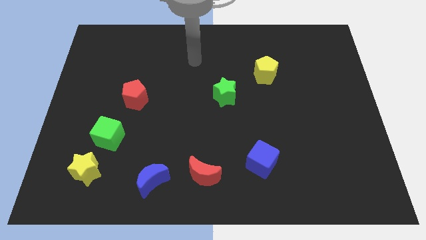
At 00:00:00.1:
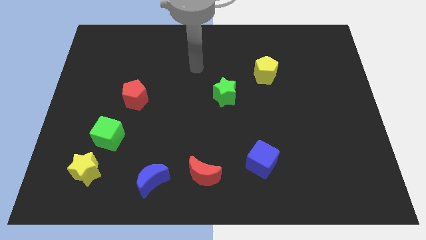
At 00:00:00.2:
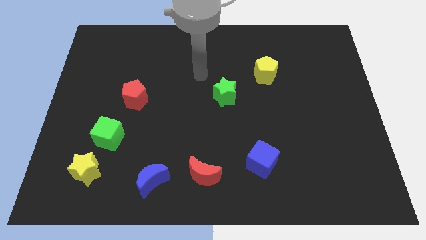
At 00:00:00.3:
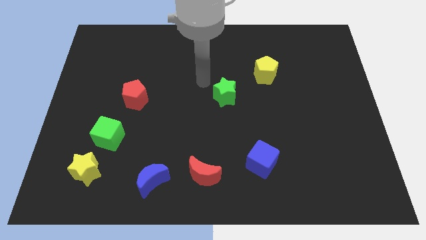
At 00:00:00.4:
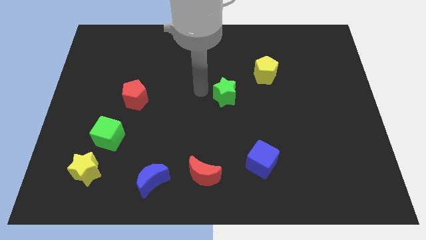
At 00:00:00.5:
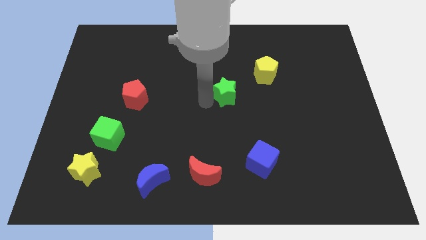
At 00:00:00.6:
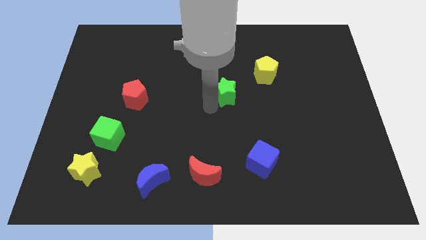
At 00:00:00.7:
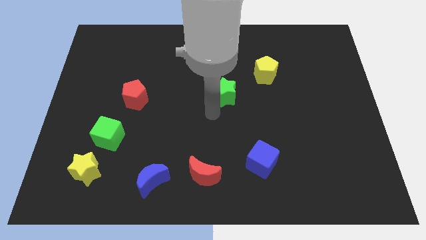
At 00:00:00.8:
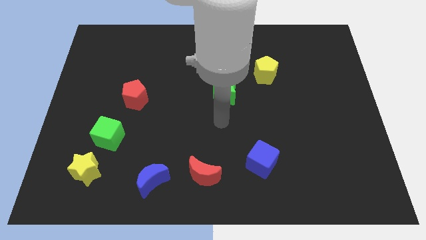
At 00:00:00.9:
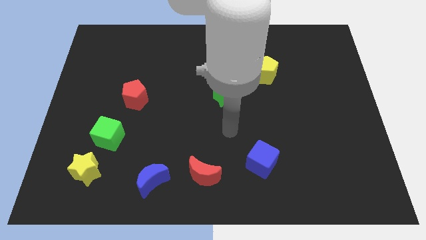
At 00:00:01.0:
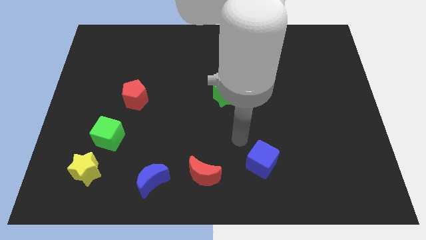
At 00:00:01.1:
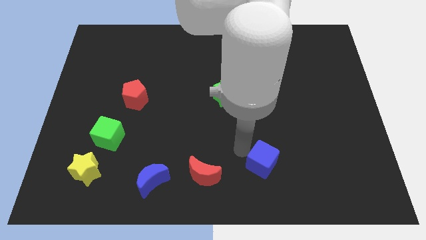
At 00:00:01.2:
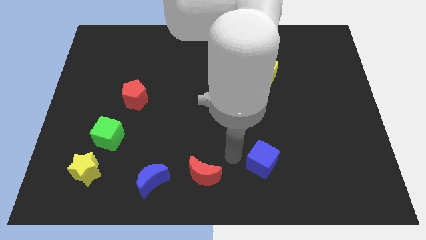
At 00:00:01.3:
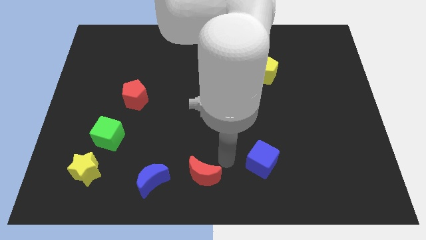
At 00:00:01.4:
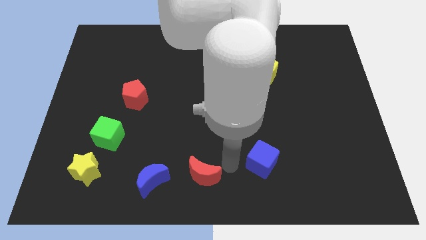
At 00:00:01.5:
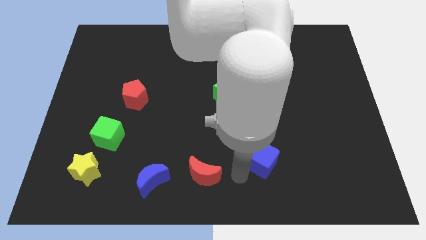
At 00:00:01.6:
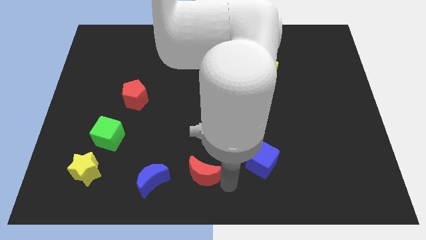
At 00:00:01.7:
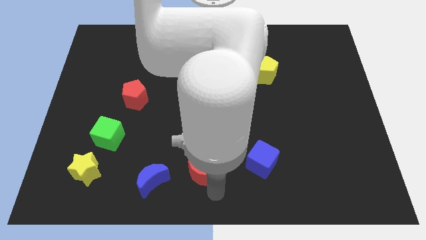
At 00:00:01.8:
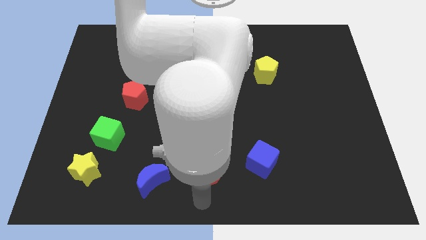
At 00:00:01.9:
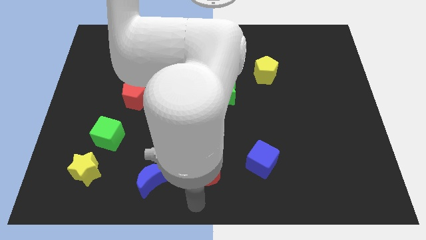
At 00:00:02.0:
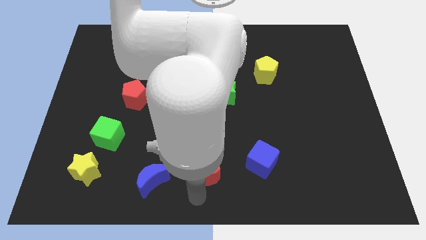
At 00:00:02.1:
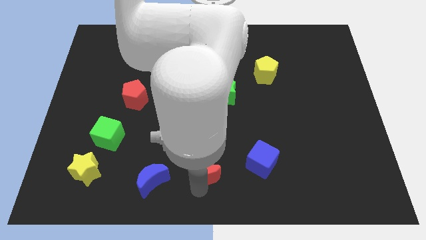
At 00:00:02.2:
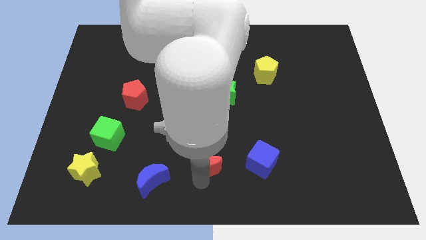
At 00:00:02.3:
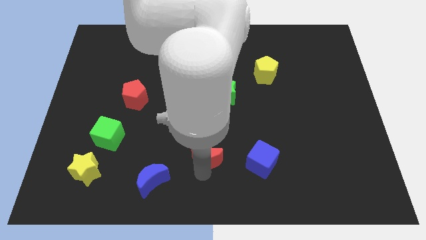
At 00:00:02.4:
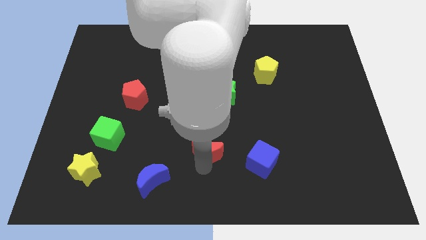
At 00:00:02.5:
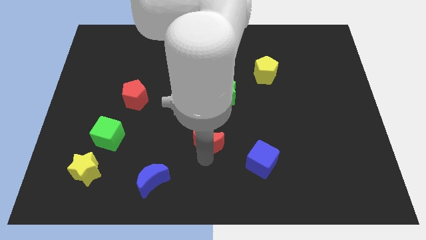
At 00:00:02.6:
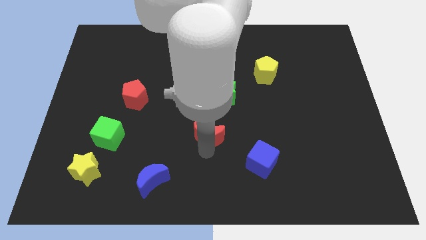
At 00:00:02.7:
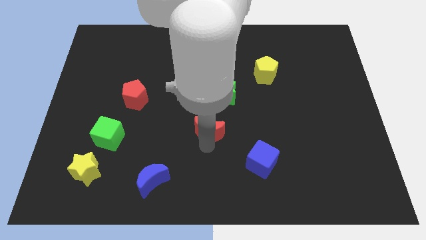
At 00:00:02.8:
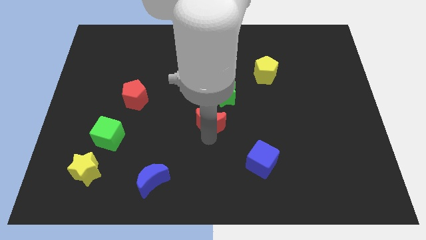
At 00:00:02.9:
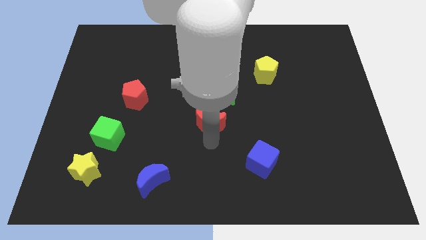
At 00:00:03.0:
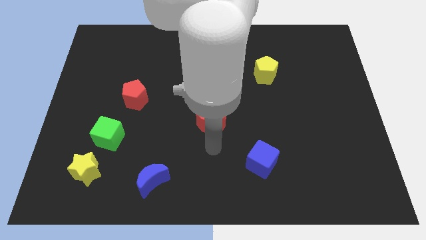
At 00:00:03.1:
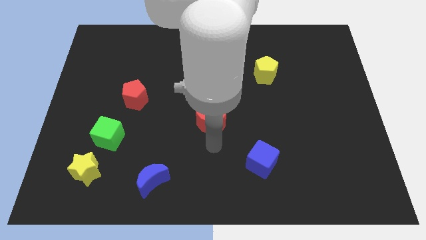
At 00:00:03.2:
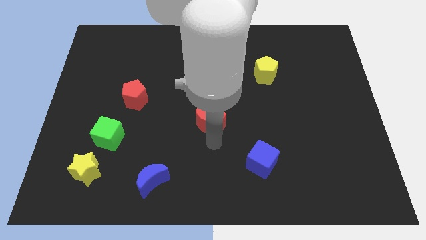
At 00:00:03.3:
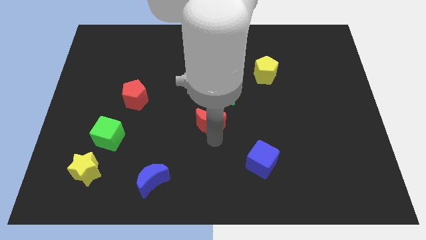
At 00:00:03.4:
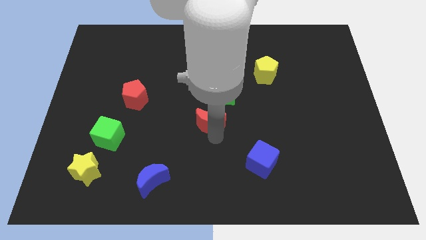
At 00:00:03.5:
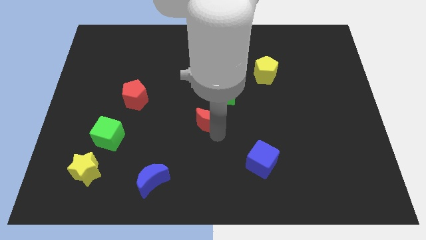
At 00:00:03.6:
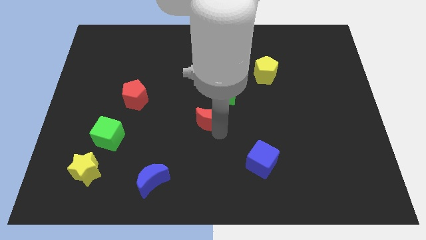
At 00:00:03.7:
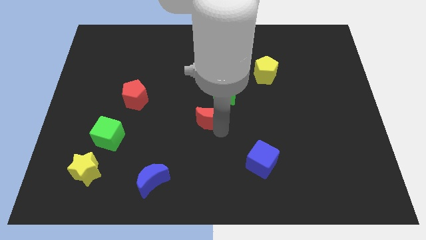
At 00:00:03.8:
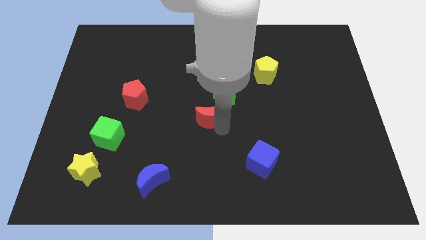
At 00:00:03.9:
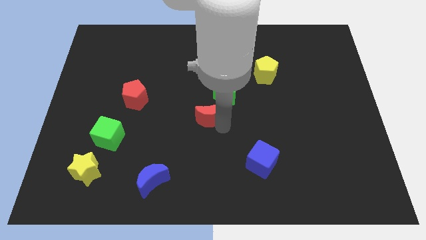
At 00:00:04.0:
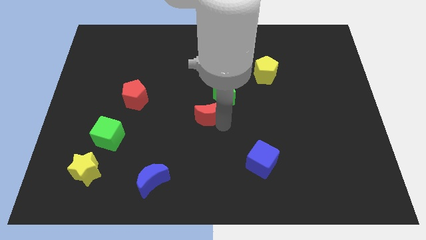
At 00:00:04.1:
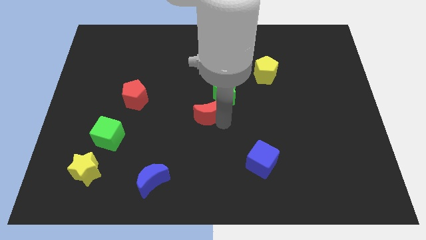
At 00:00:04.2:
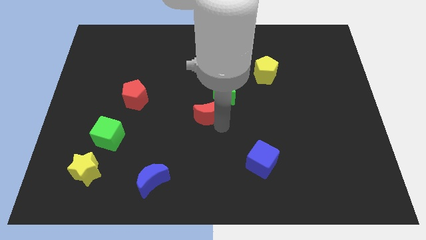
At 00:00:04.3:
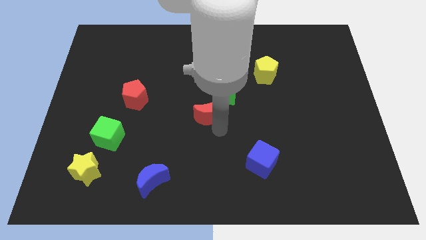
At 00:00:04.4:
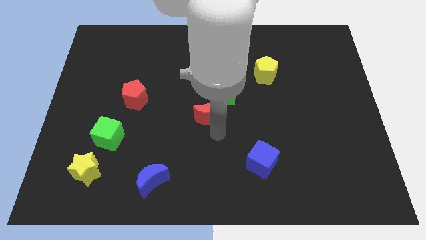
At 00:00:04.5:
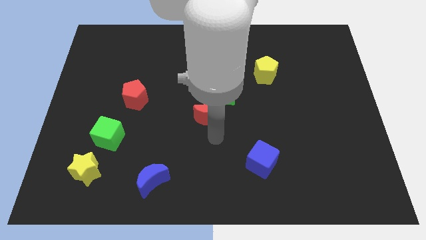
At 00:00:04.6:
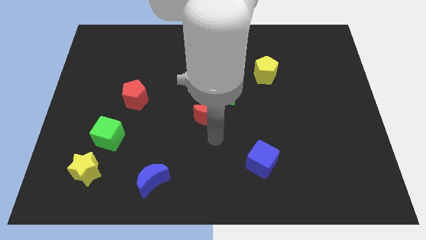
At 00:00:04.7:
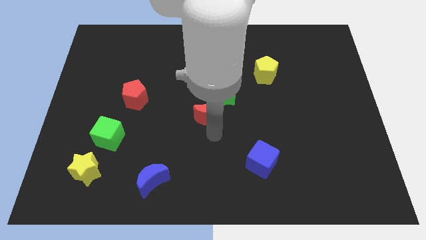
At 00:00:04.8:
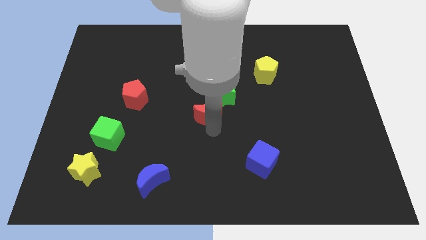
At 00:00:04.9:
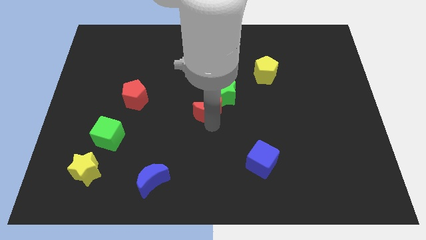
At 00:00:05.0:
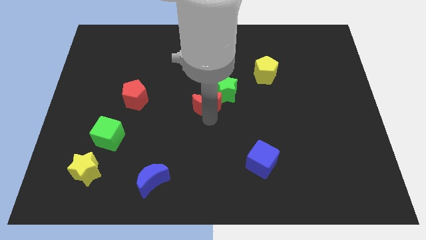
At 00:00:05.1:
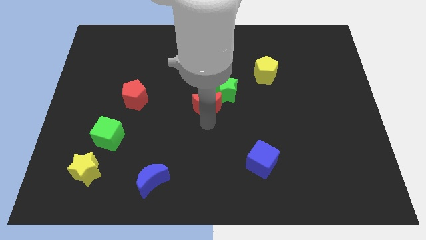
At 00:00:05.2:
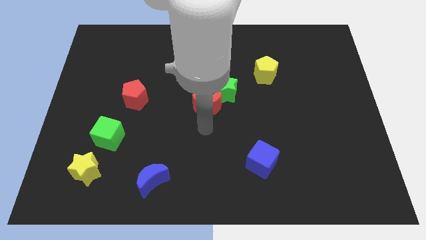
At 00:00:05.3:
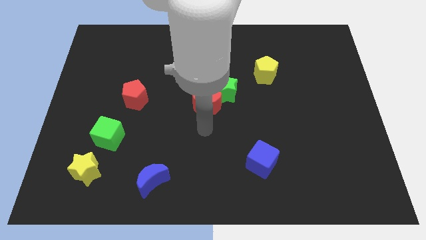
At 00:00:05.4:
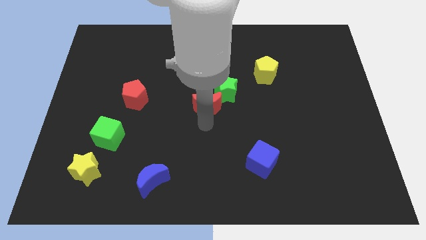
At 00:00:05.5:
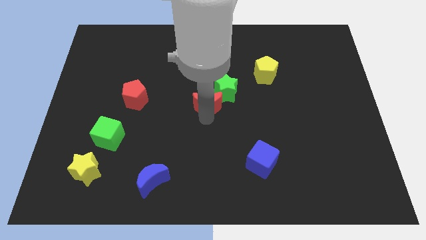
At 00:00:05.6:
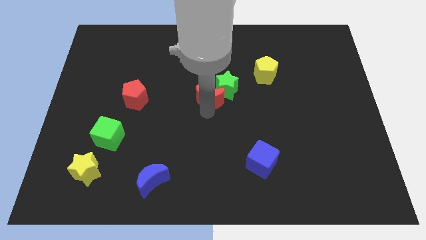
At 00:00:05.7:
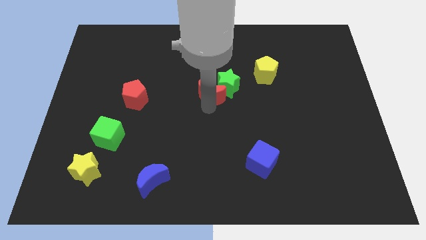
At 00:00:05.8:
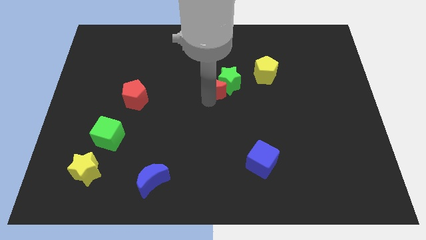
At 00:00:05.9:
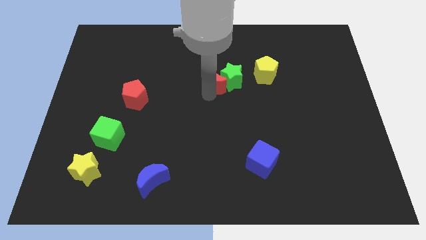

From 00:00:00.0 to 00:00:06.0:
push the red moon to the left of the yellow pentagon

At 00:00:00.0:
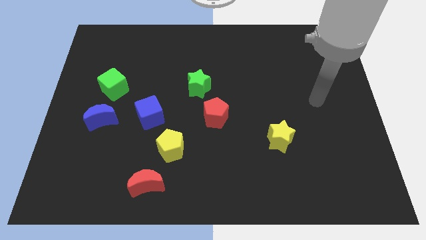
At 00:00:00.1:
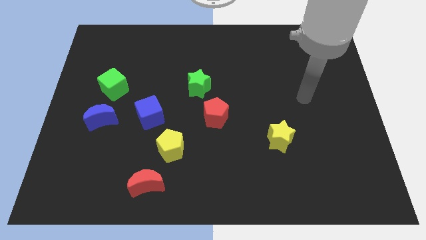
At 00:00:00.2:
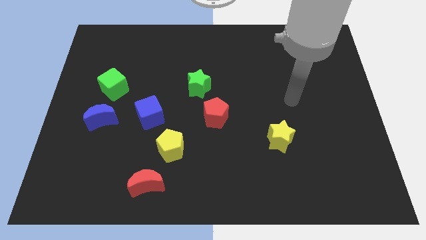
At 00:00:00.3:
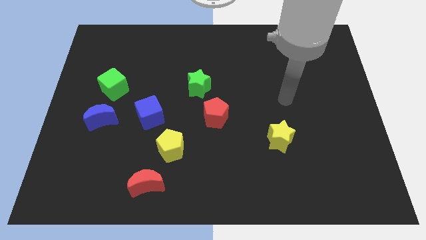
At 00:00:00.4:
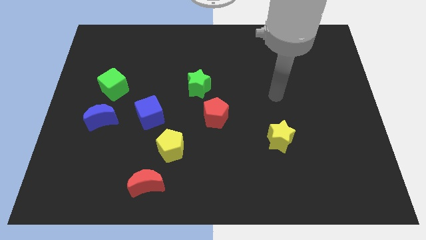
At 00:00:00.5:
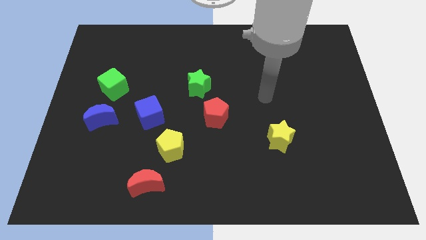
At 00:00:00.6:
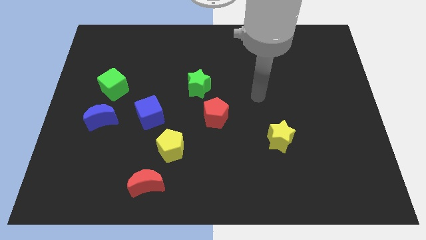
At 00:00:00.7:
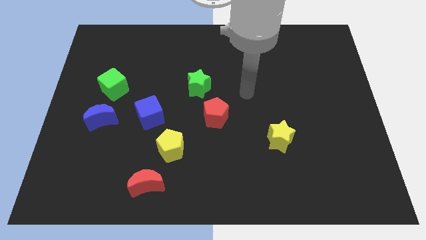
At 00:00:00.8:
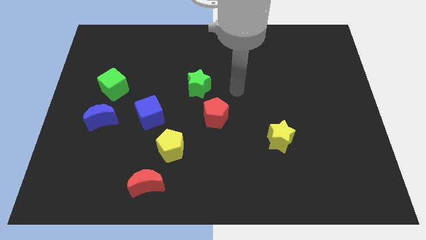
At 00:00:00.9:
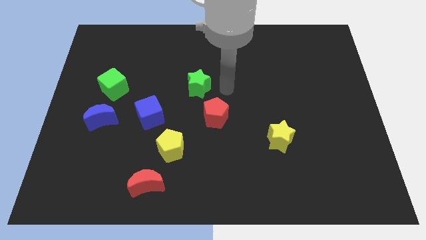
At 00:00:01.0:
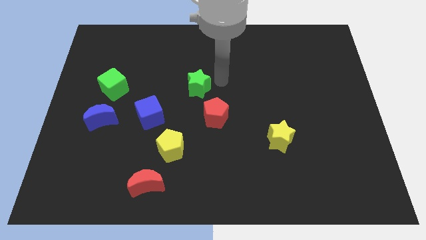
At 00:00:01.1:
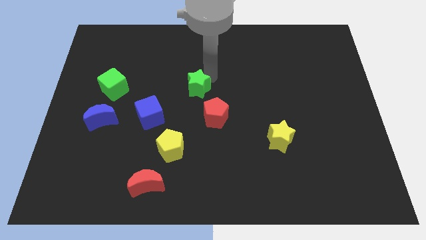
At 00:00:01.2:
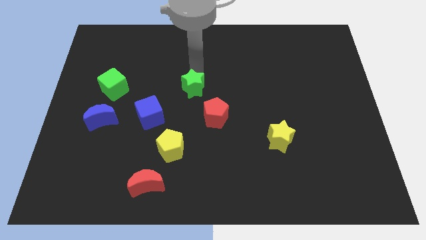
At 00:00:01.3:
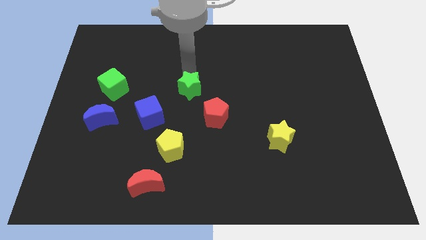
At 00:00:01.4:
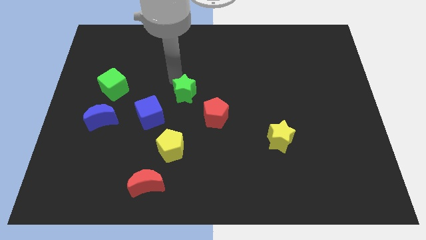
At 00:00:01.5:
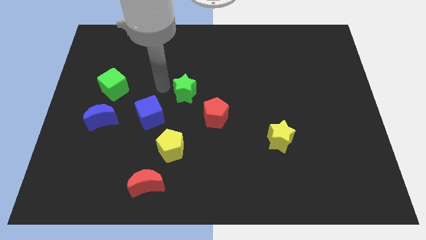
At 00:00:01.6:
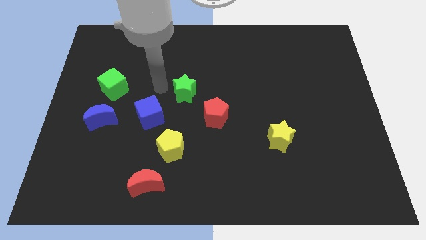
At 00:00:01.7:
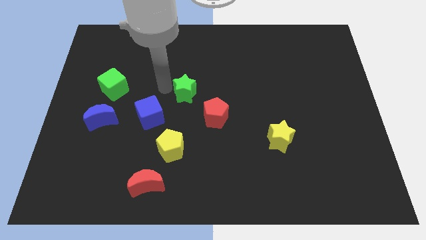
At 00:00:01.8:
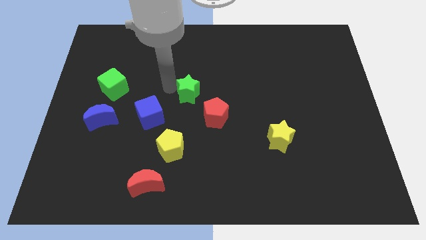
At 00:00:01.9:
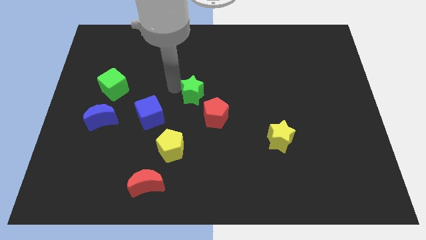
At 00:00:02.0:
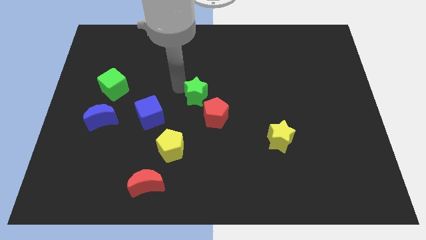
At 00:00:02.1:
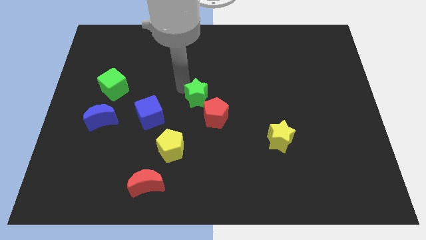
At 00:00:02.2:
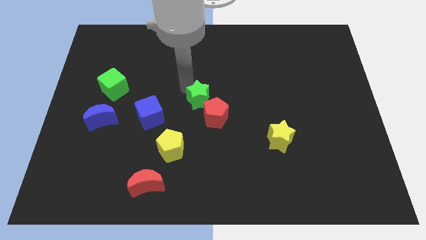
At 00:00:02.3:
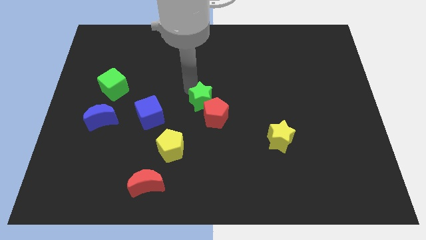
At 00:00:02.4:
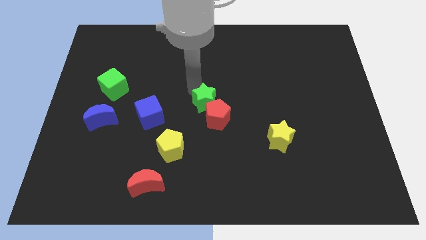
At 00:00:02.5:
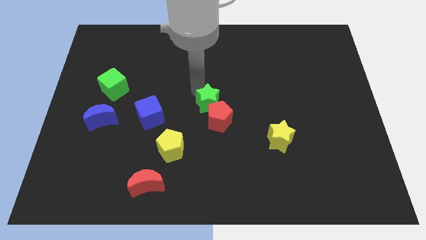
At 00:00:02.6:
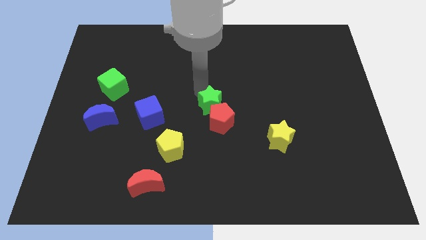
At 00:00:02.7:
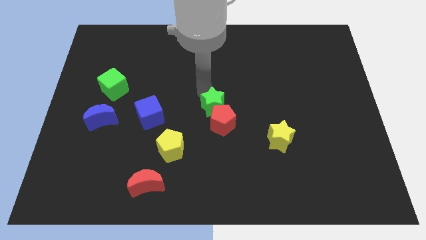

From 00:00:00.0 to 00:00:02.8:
slide the green star to the top right side of the red pentagon
